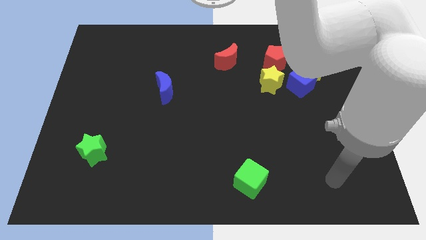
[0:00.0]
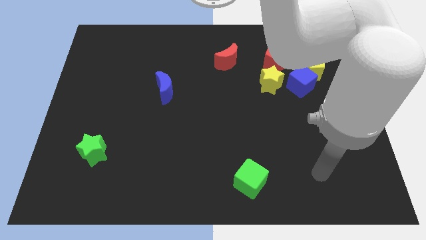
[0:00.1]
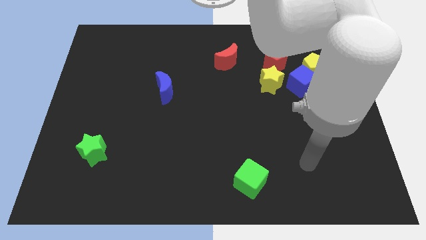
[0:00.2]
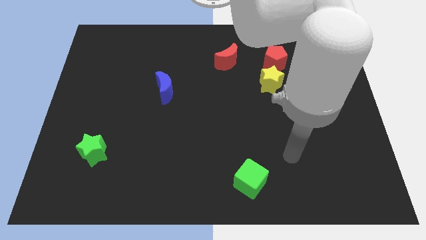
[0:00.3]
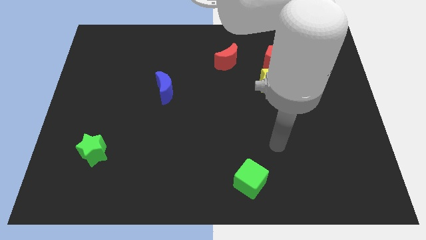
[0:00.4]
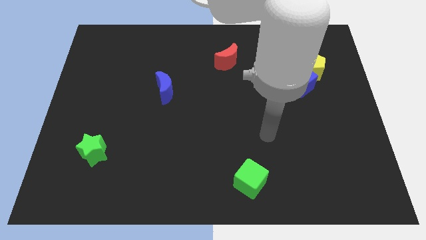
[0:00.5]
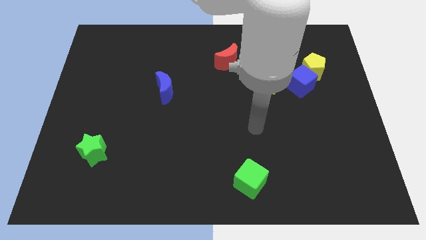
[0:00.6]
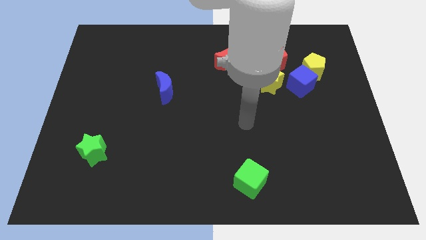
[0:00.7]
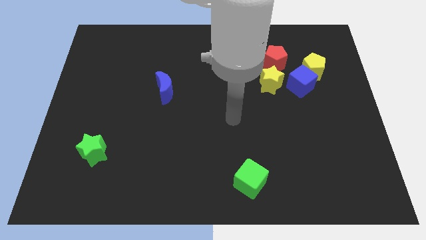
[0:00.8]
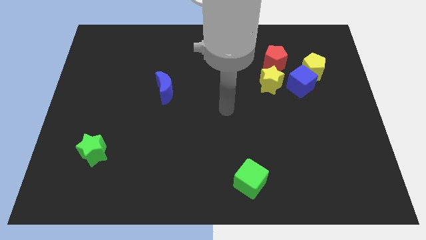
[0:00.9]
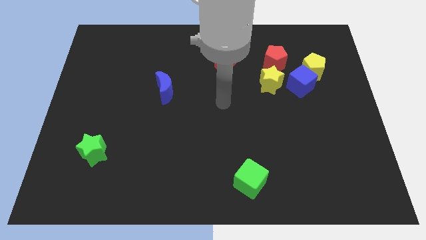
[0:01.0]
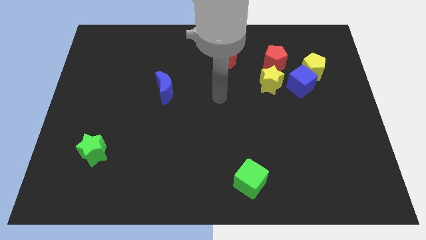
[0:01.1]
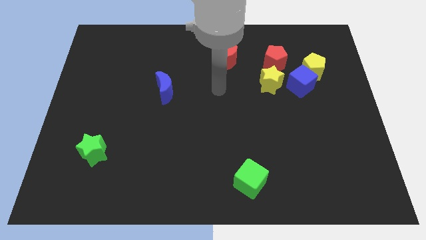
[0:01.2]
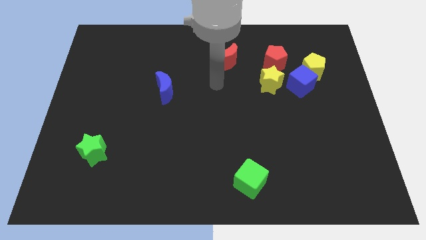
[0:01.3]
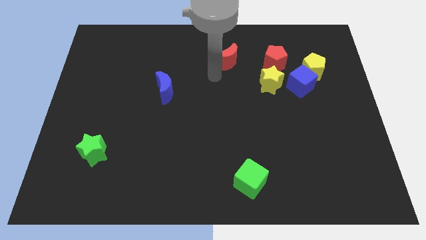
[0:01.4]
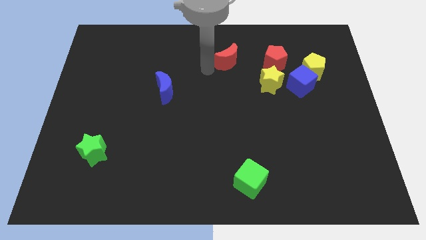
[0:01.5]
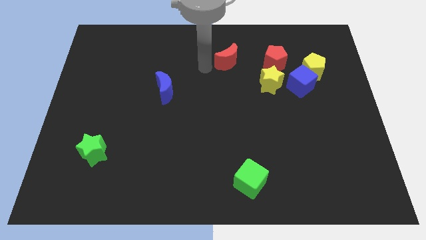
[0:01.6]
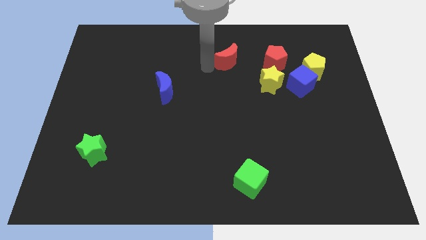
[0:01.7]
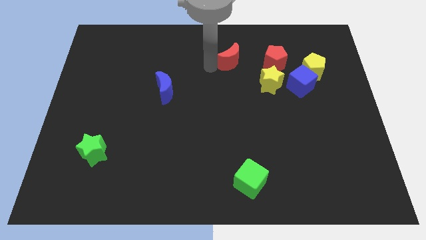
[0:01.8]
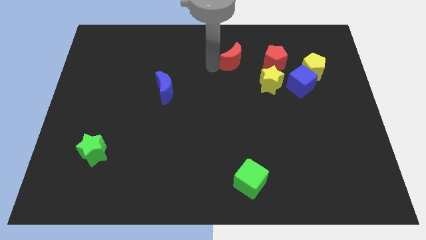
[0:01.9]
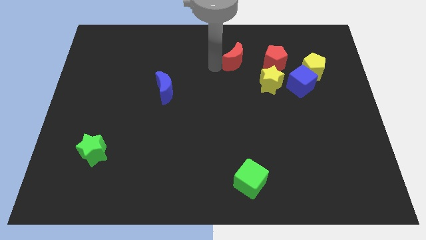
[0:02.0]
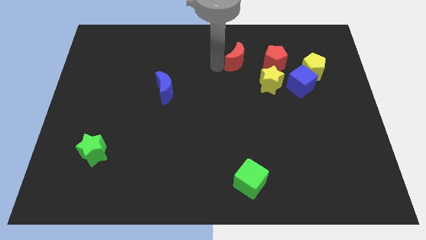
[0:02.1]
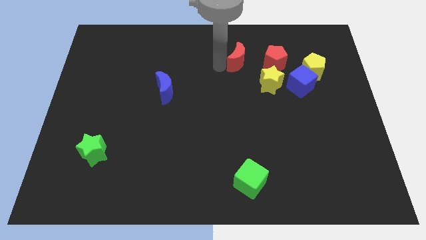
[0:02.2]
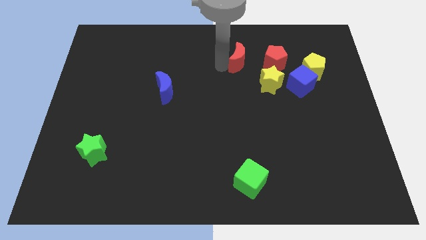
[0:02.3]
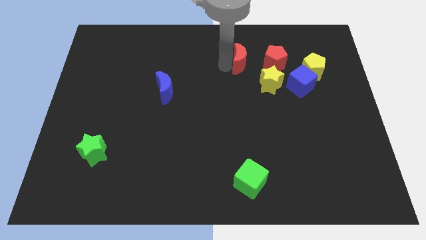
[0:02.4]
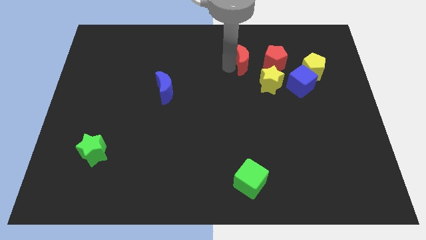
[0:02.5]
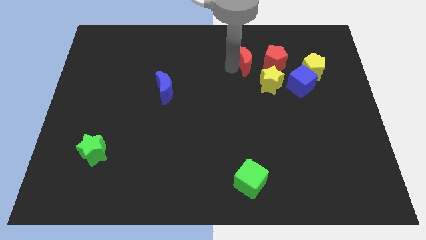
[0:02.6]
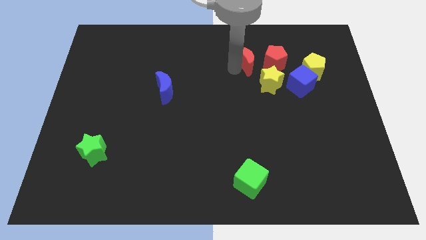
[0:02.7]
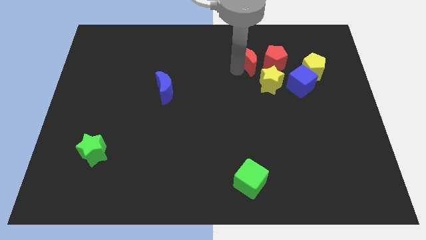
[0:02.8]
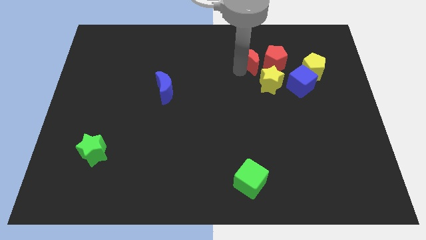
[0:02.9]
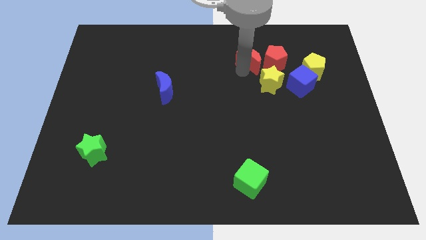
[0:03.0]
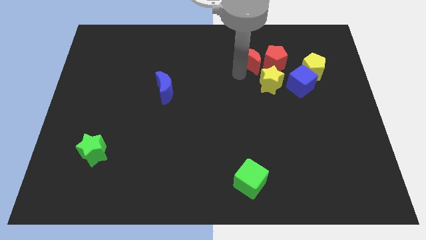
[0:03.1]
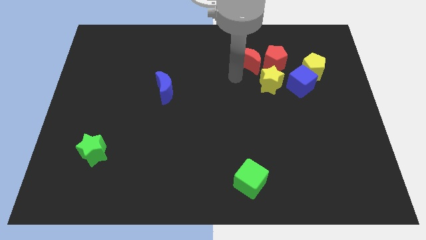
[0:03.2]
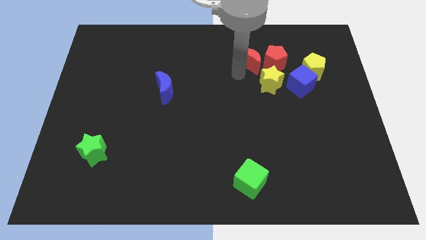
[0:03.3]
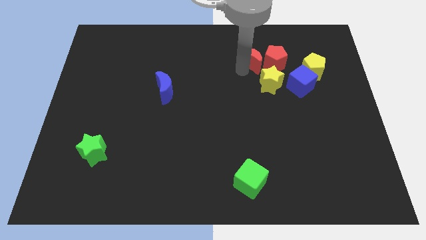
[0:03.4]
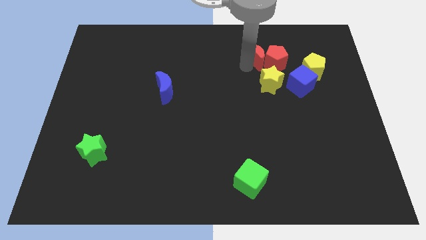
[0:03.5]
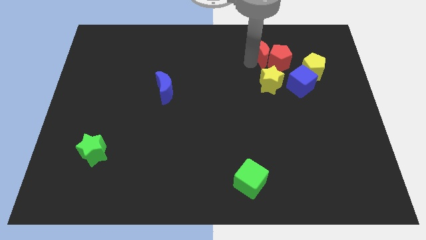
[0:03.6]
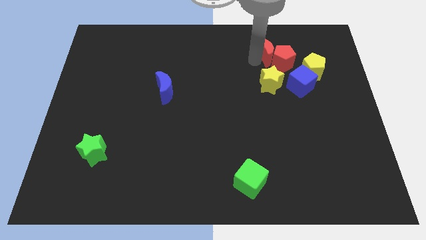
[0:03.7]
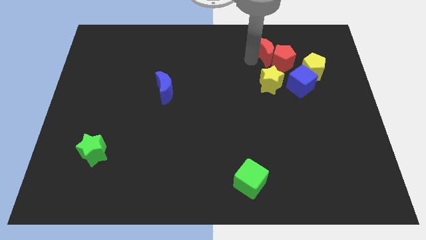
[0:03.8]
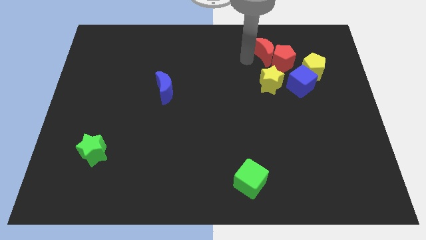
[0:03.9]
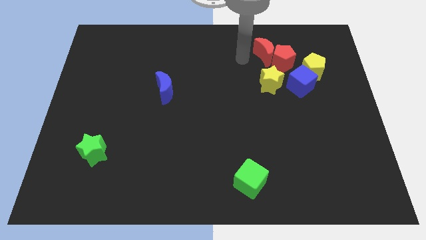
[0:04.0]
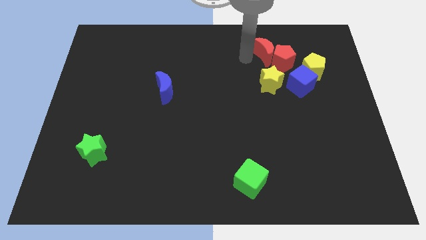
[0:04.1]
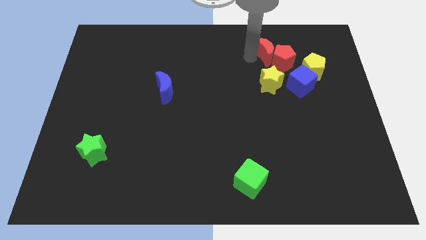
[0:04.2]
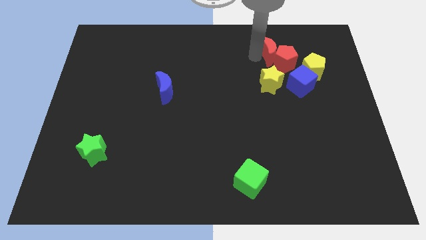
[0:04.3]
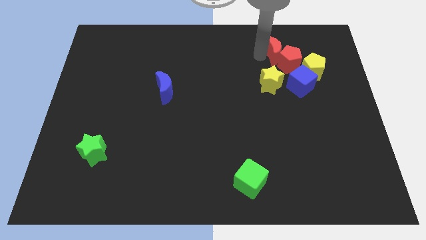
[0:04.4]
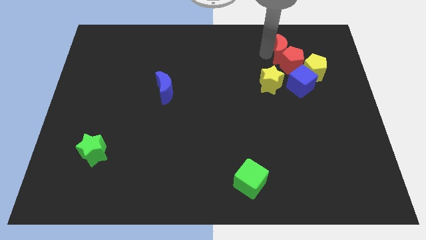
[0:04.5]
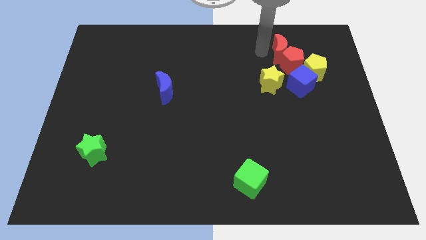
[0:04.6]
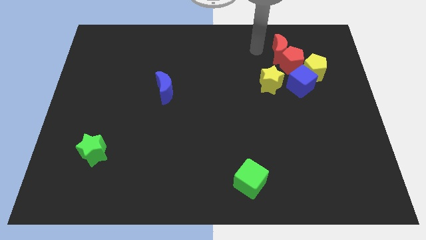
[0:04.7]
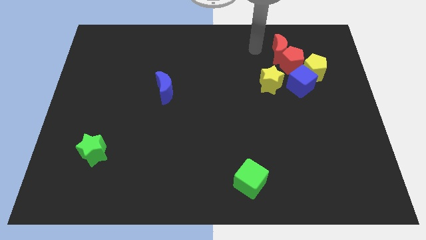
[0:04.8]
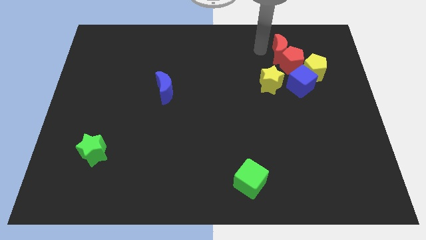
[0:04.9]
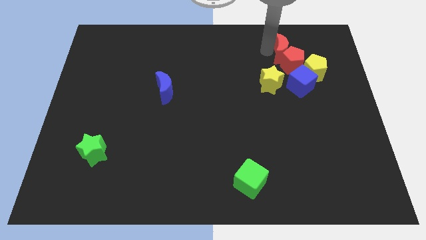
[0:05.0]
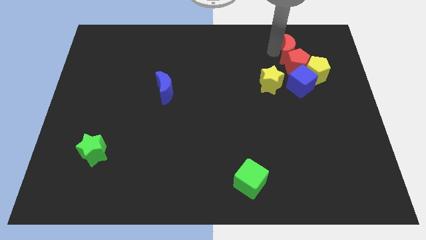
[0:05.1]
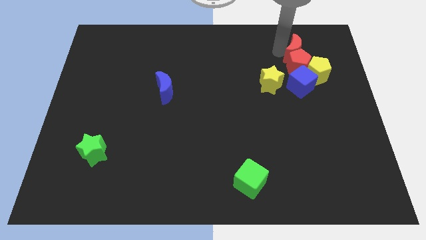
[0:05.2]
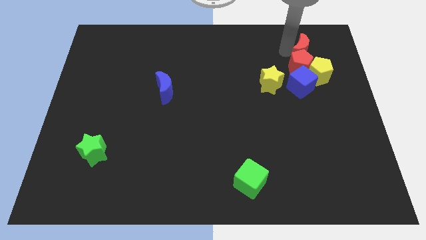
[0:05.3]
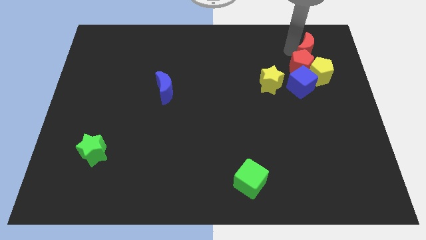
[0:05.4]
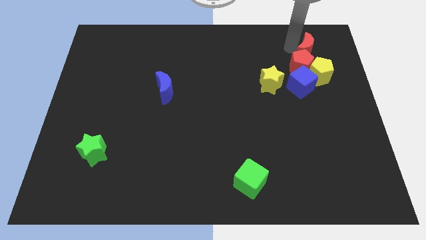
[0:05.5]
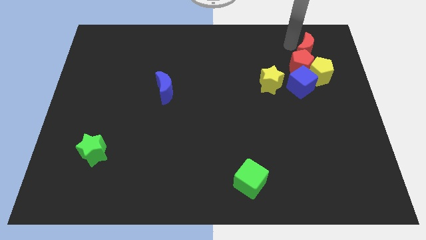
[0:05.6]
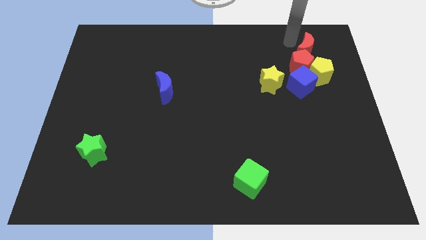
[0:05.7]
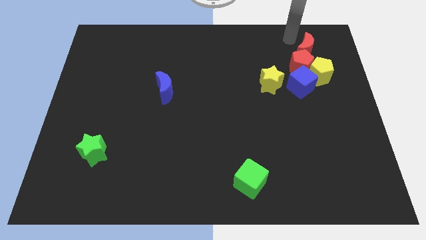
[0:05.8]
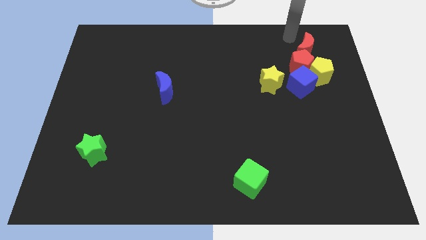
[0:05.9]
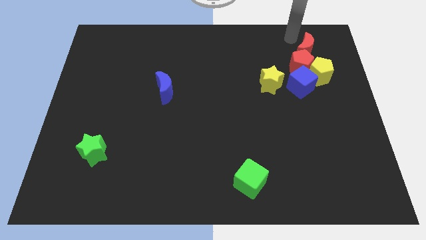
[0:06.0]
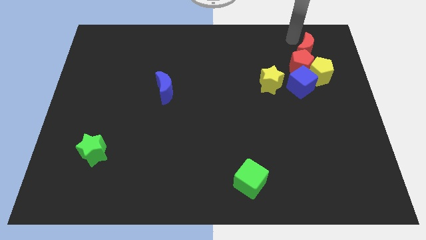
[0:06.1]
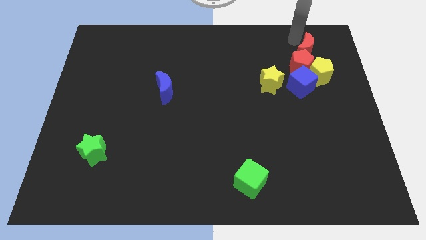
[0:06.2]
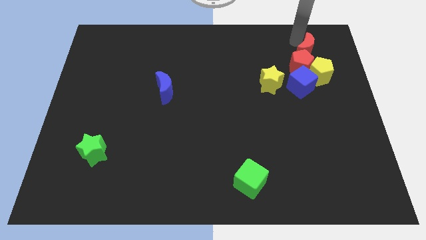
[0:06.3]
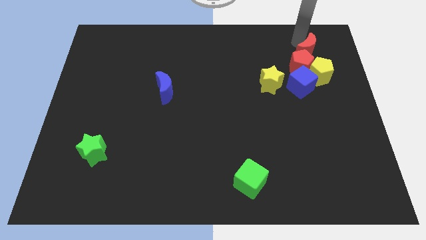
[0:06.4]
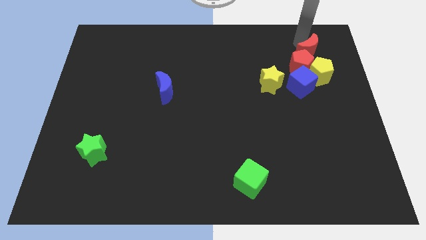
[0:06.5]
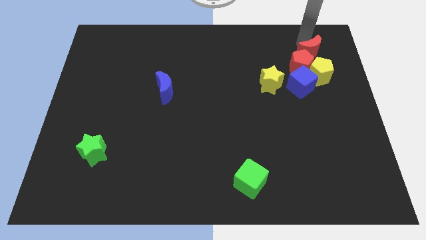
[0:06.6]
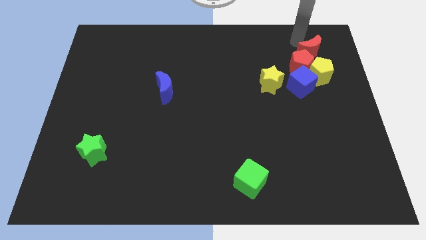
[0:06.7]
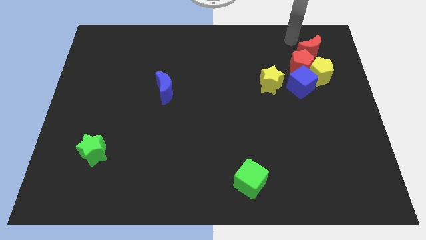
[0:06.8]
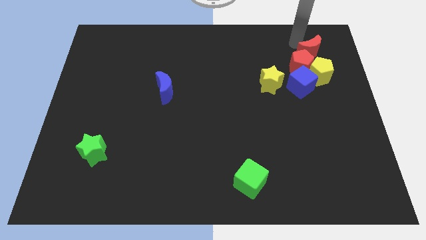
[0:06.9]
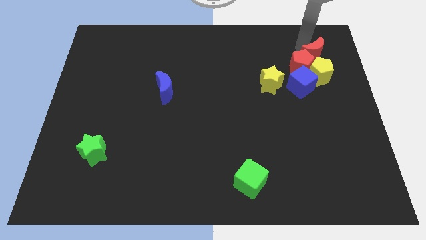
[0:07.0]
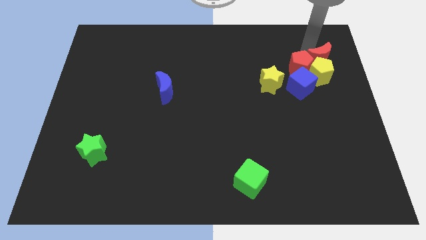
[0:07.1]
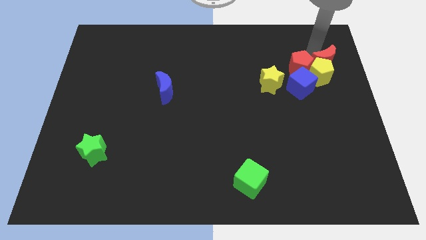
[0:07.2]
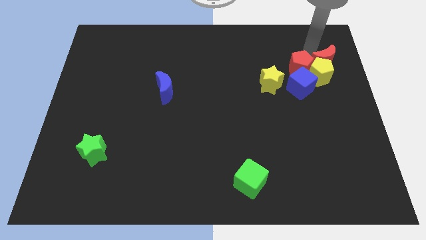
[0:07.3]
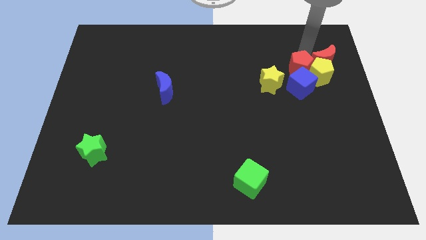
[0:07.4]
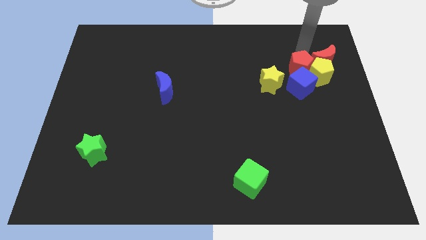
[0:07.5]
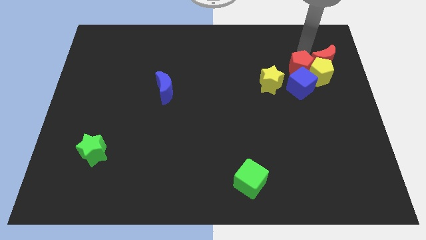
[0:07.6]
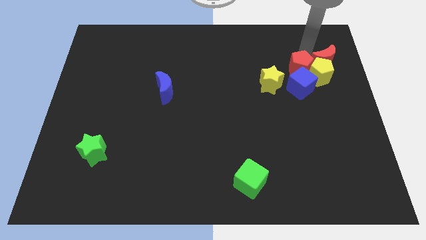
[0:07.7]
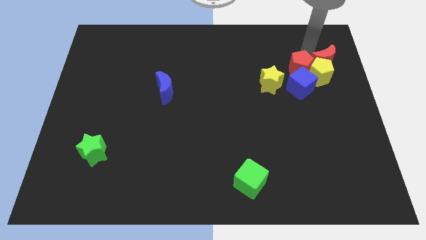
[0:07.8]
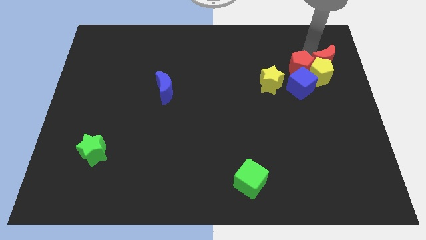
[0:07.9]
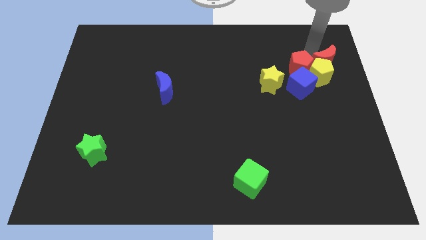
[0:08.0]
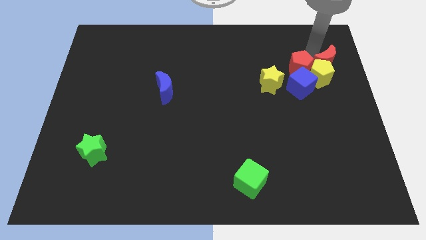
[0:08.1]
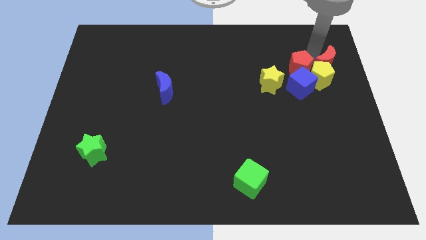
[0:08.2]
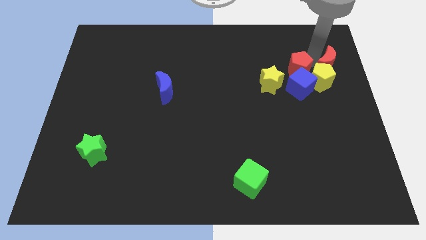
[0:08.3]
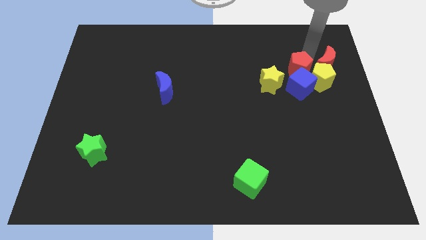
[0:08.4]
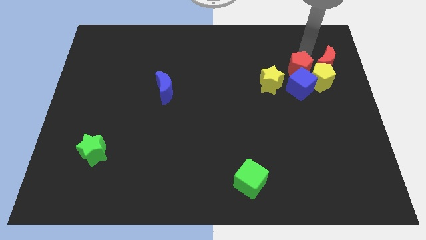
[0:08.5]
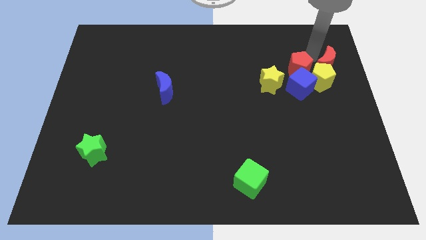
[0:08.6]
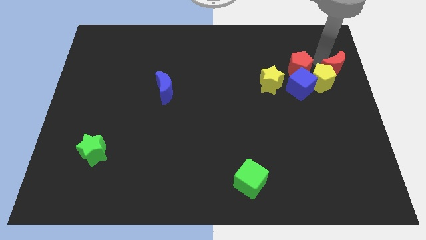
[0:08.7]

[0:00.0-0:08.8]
slide the red moon to the center right
